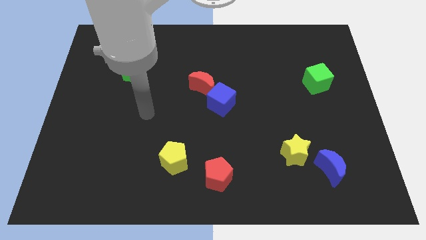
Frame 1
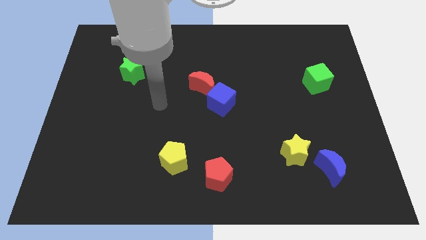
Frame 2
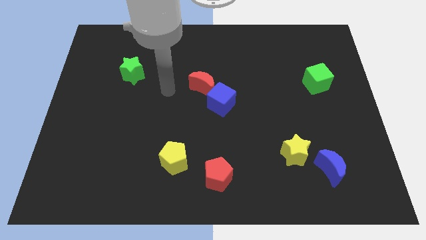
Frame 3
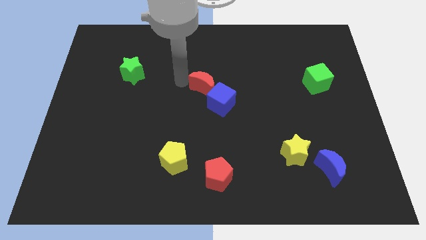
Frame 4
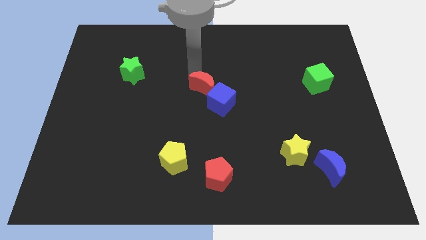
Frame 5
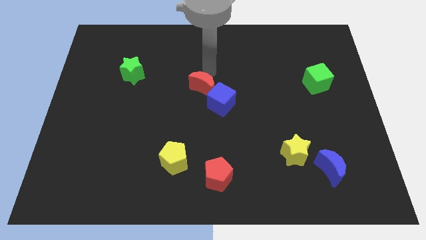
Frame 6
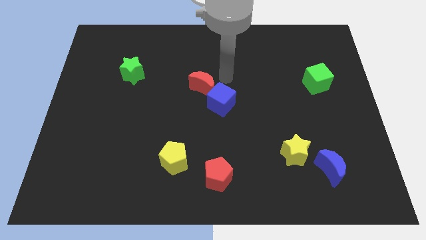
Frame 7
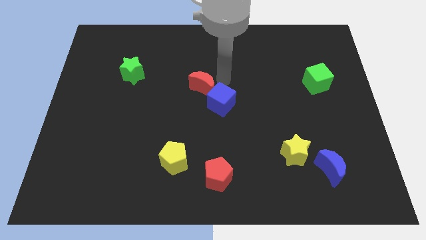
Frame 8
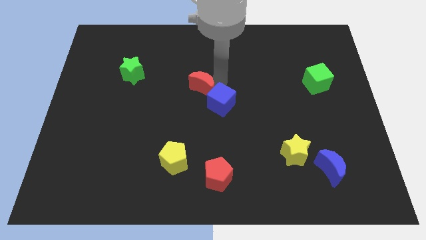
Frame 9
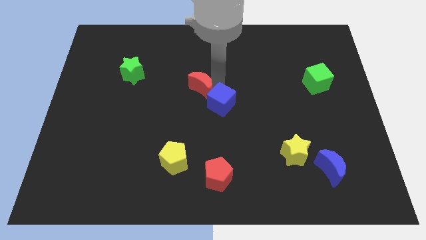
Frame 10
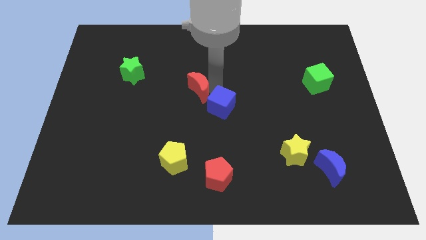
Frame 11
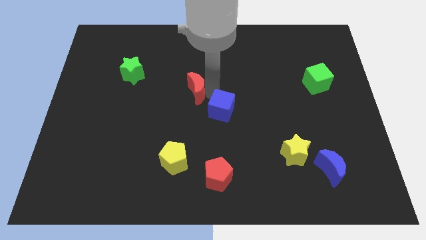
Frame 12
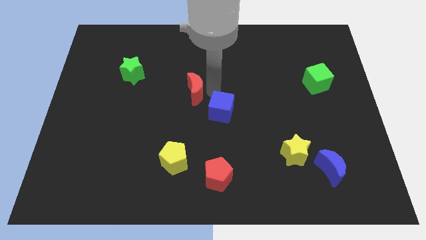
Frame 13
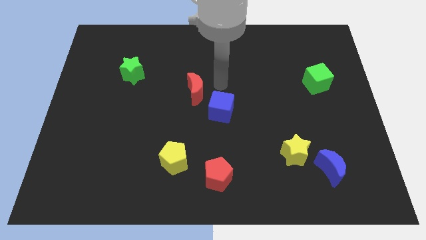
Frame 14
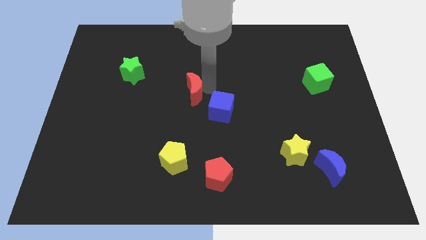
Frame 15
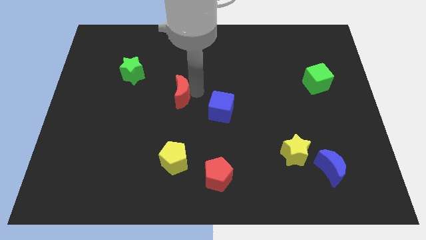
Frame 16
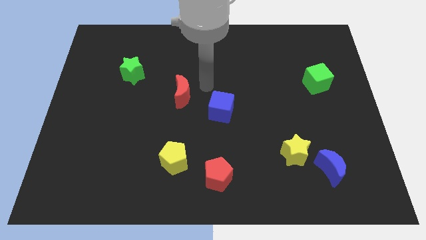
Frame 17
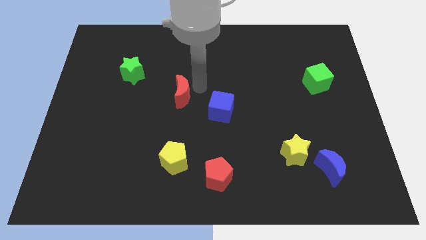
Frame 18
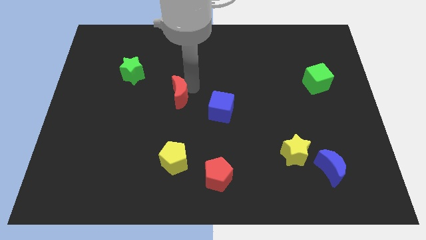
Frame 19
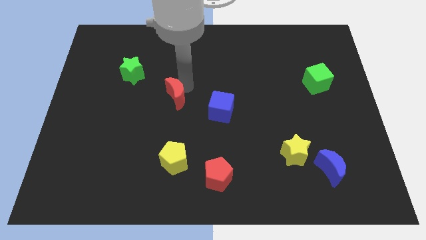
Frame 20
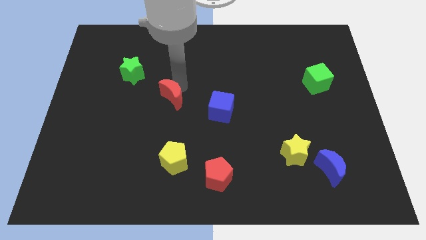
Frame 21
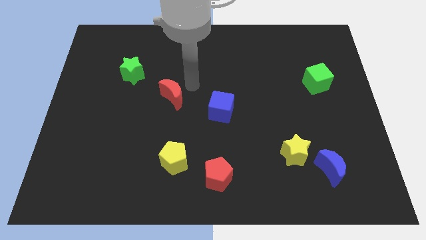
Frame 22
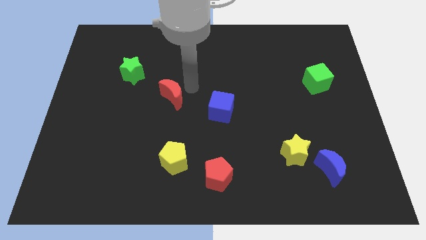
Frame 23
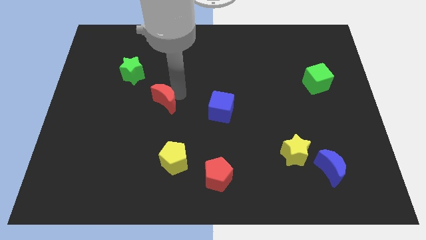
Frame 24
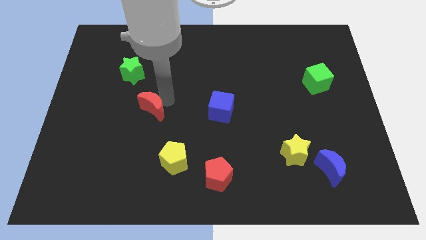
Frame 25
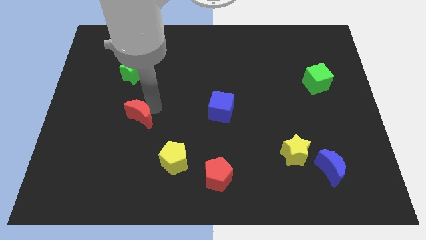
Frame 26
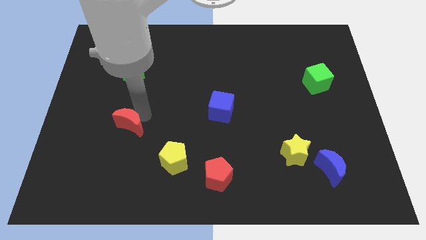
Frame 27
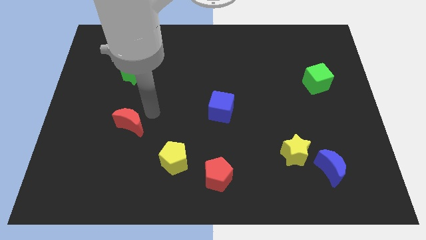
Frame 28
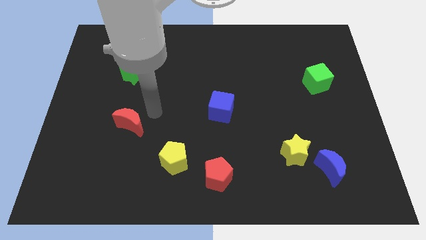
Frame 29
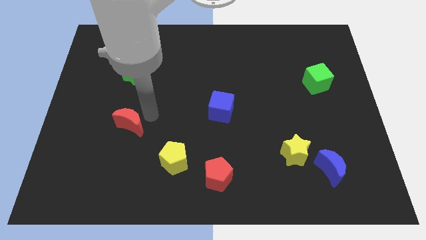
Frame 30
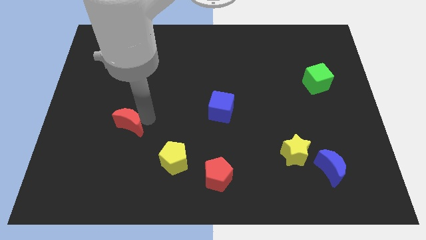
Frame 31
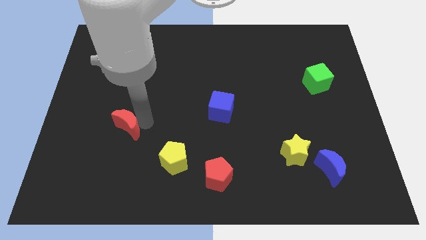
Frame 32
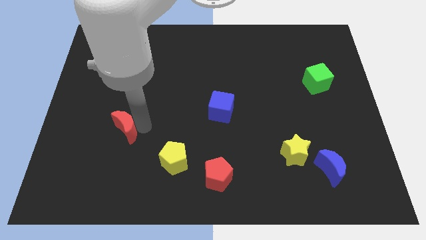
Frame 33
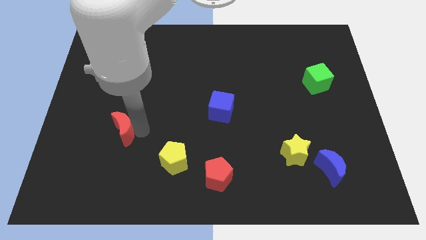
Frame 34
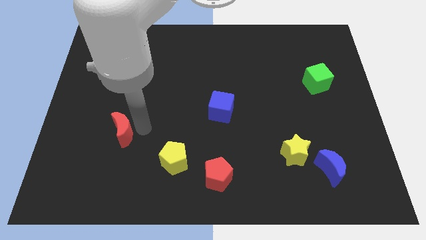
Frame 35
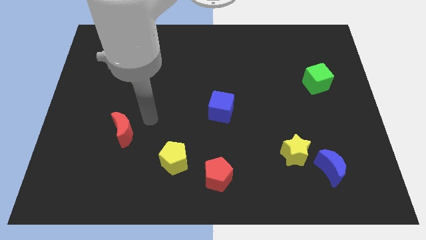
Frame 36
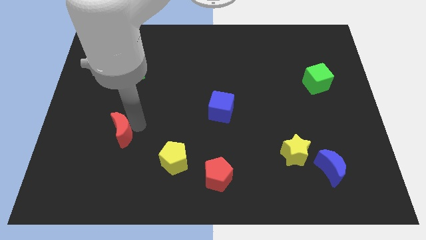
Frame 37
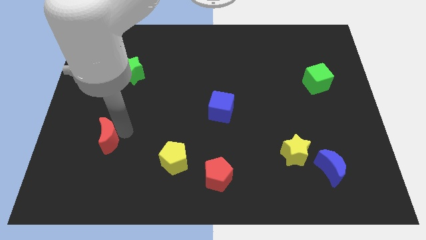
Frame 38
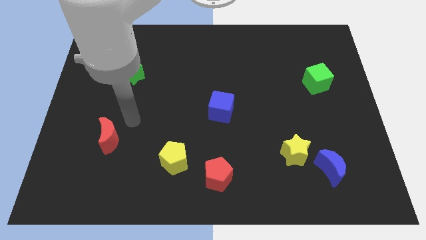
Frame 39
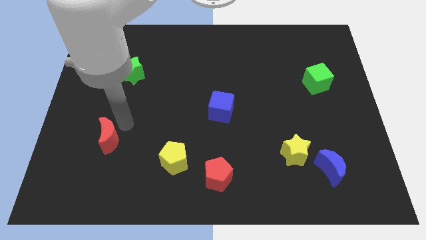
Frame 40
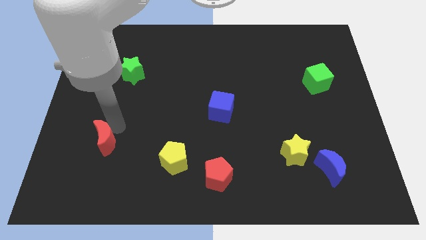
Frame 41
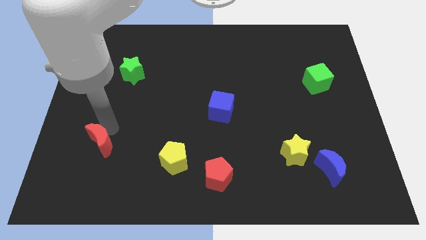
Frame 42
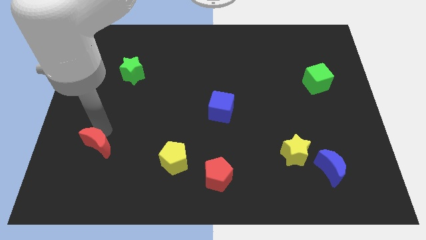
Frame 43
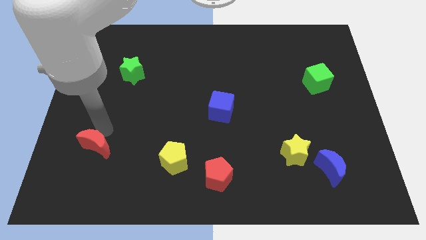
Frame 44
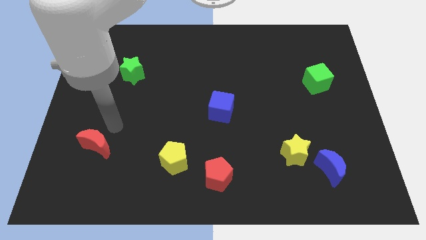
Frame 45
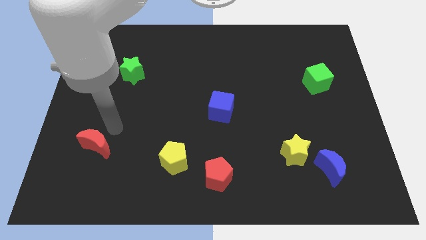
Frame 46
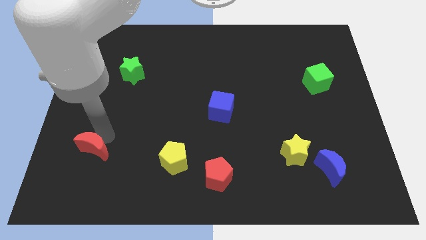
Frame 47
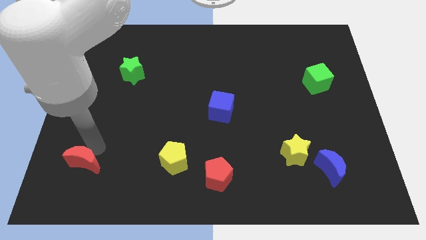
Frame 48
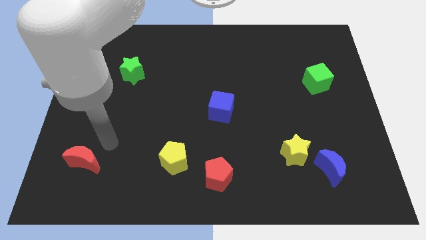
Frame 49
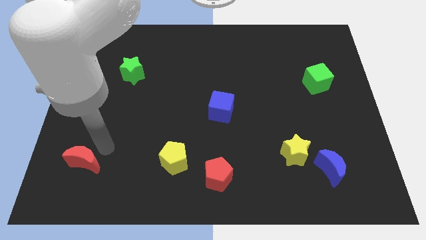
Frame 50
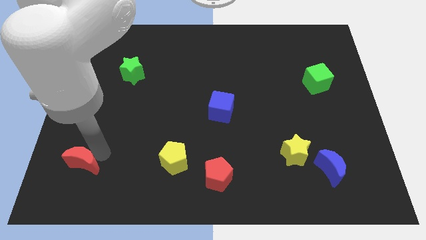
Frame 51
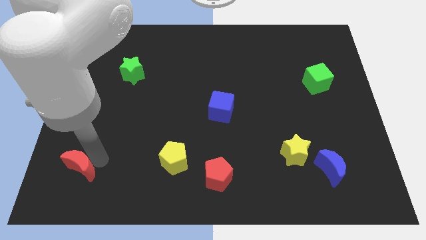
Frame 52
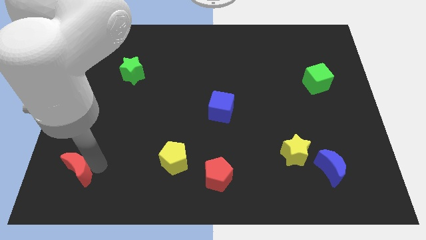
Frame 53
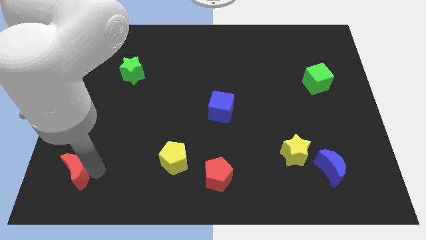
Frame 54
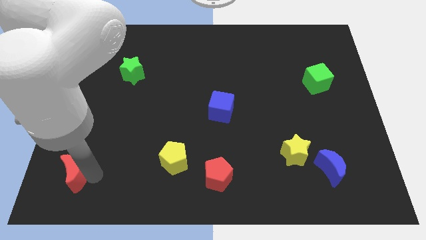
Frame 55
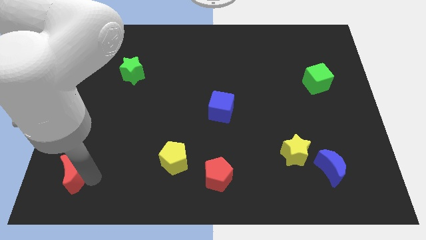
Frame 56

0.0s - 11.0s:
push the red moon to the bottom left of the board

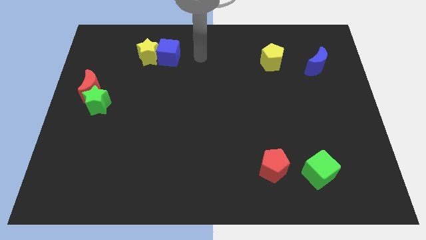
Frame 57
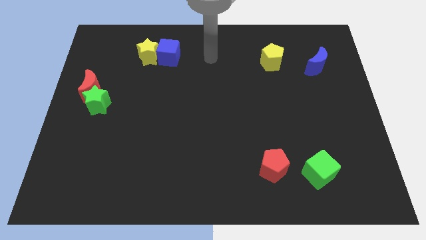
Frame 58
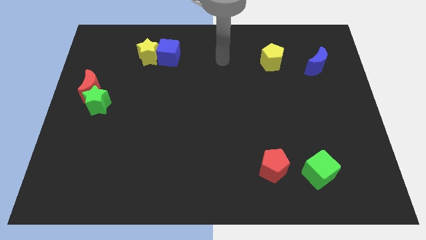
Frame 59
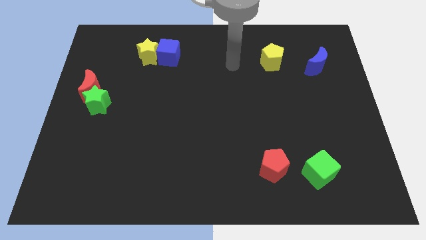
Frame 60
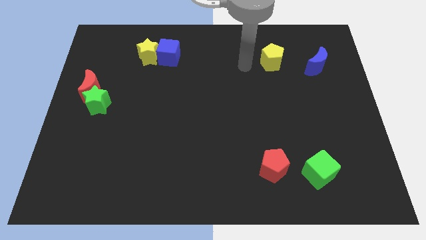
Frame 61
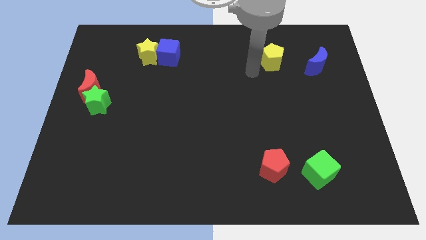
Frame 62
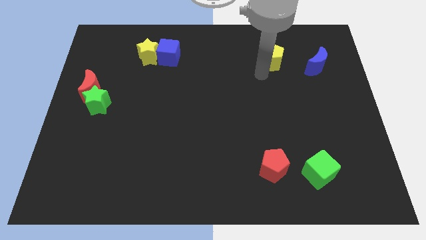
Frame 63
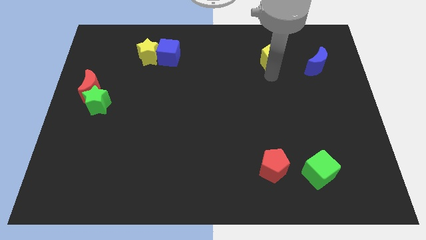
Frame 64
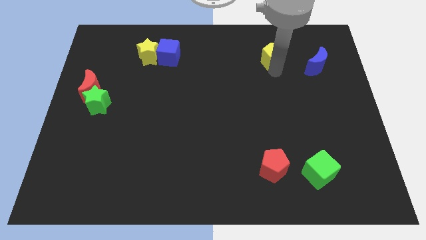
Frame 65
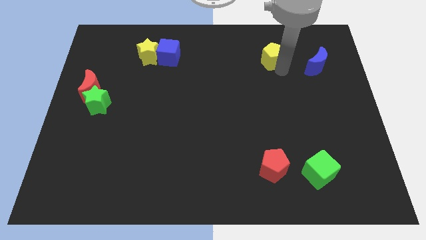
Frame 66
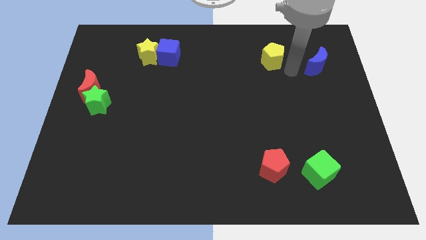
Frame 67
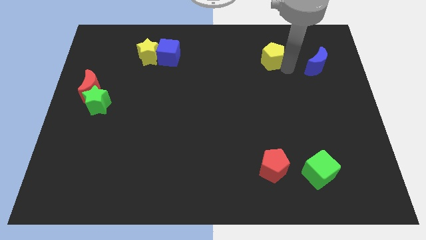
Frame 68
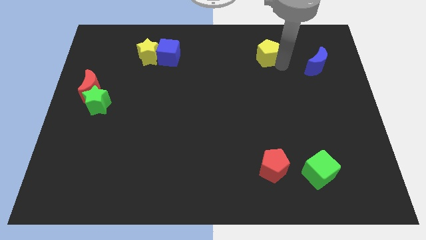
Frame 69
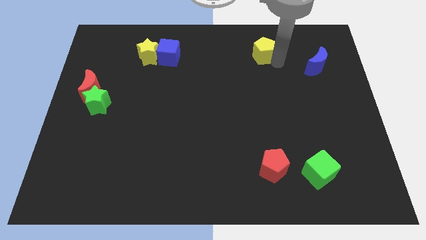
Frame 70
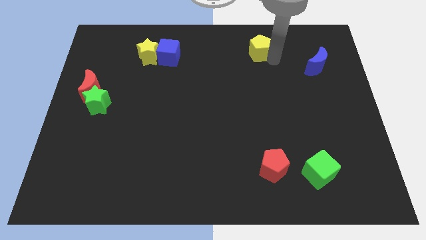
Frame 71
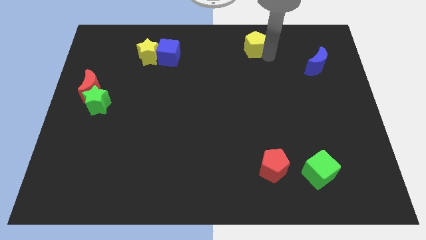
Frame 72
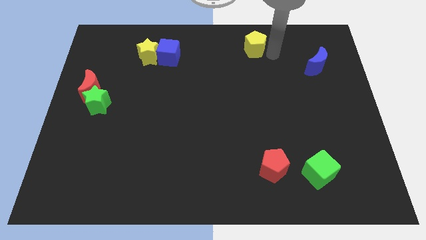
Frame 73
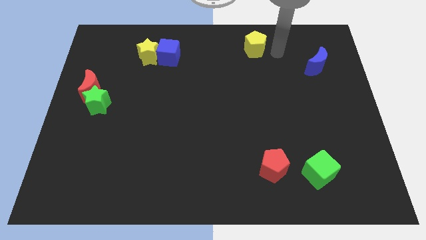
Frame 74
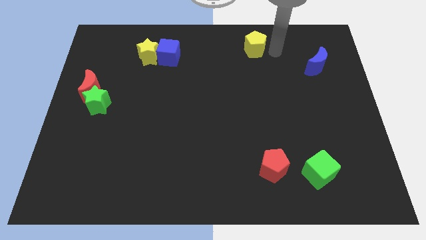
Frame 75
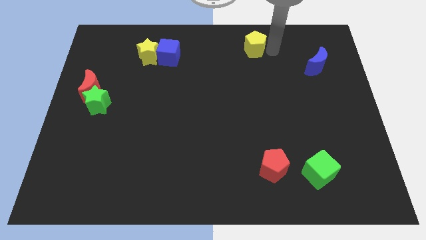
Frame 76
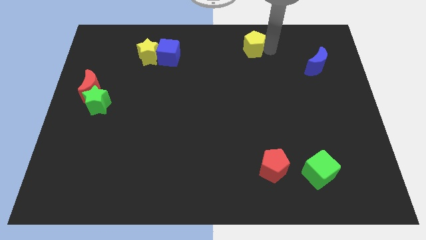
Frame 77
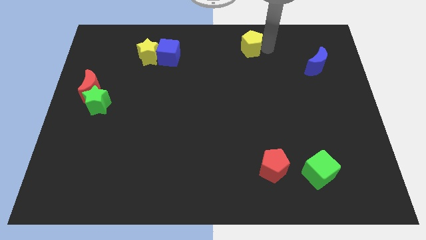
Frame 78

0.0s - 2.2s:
move the yellow pentagon to the top
